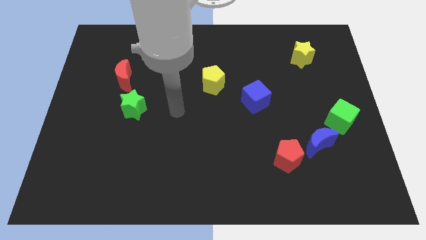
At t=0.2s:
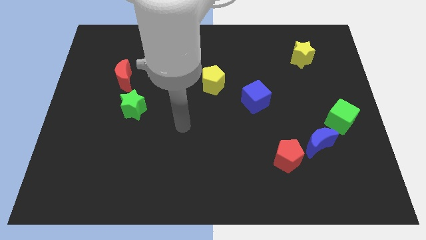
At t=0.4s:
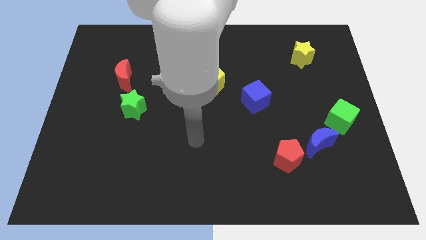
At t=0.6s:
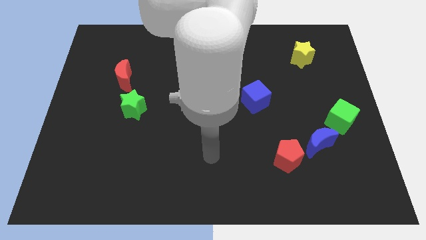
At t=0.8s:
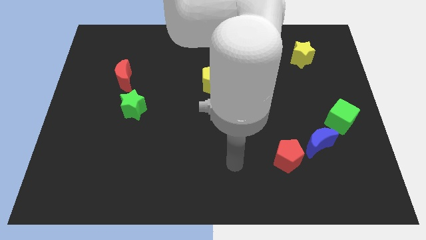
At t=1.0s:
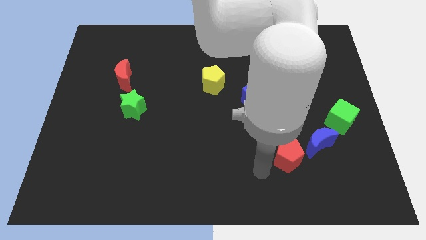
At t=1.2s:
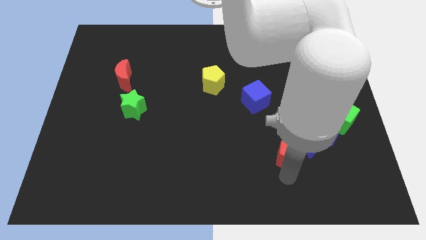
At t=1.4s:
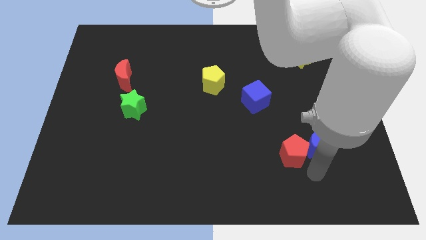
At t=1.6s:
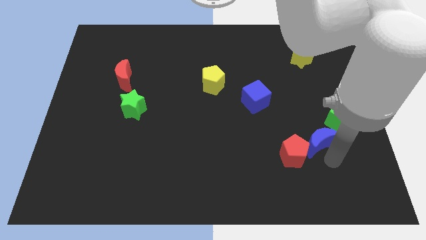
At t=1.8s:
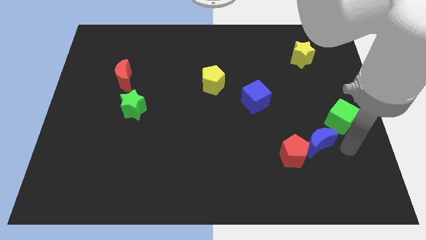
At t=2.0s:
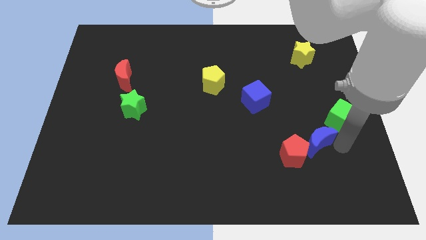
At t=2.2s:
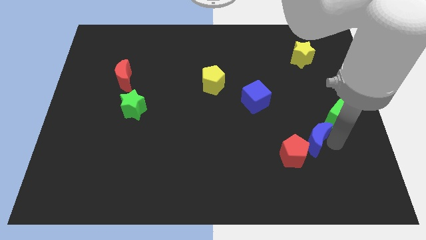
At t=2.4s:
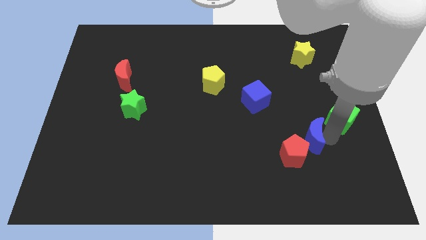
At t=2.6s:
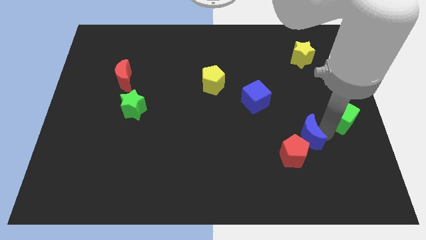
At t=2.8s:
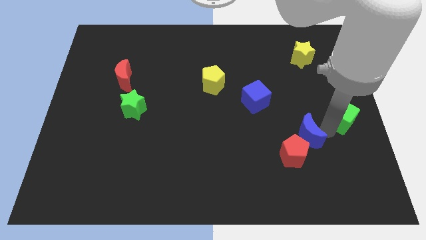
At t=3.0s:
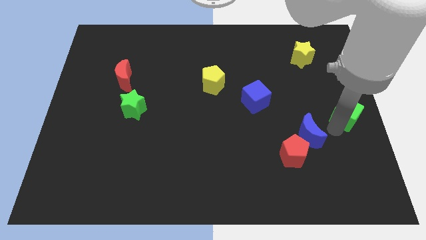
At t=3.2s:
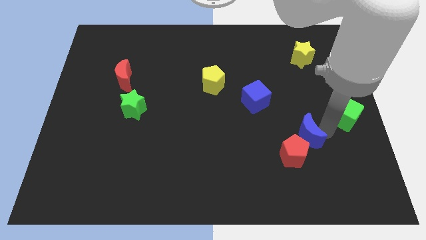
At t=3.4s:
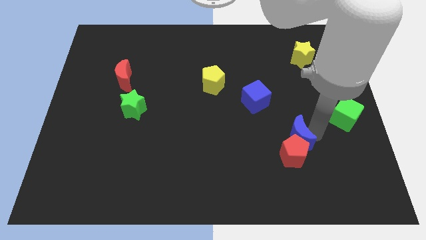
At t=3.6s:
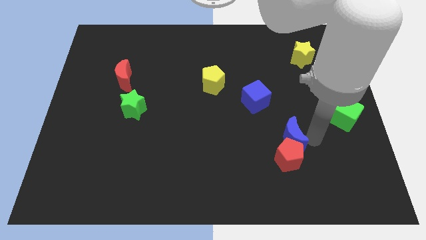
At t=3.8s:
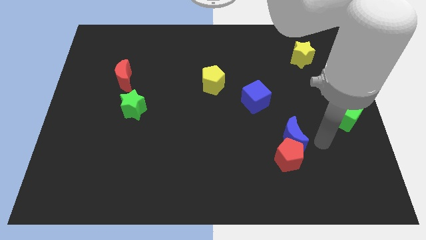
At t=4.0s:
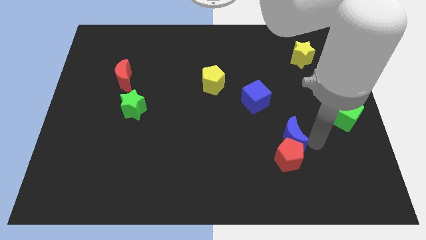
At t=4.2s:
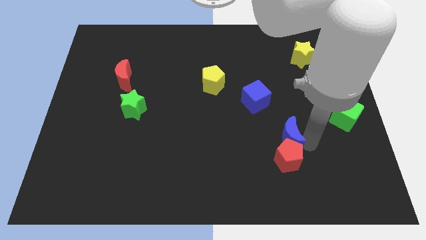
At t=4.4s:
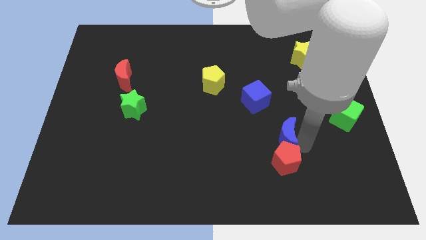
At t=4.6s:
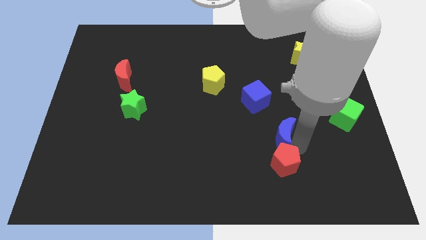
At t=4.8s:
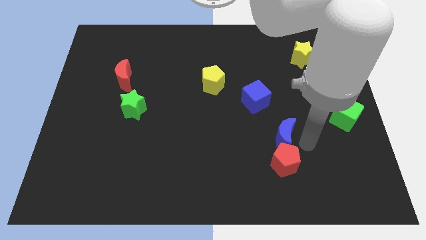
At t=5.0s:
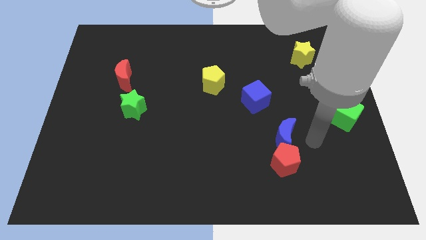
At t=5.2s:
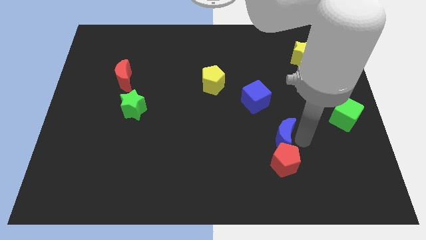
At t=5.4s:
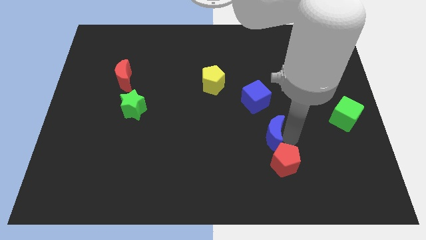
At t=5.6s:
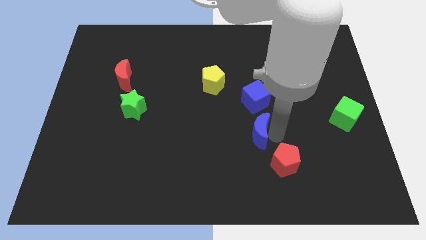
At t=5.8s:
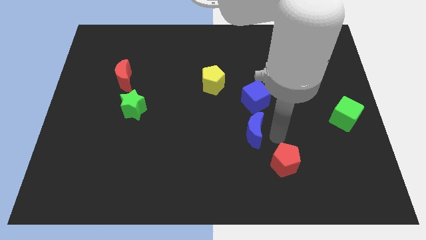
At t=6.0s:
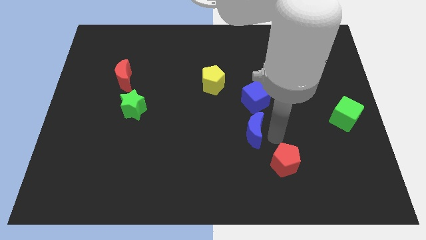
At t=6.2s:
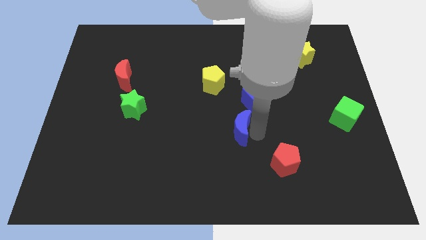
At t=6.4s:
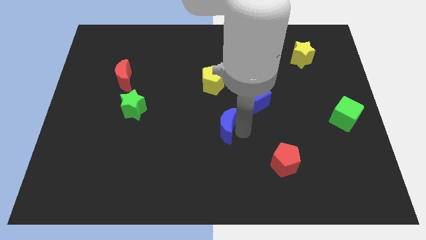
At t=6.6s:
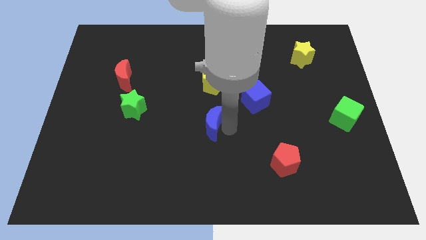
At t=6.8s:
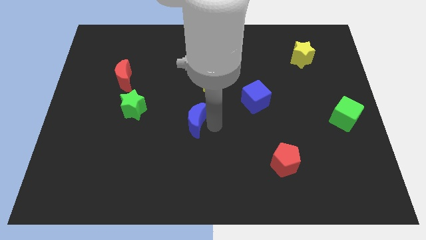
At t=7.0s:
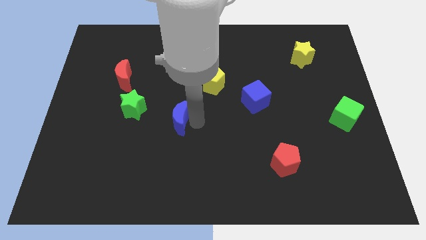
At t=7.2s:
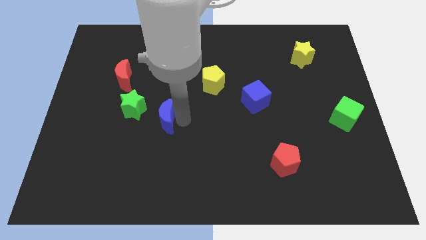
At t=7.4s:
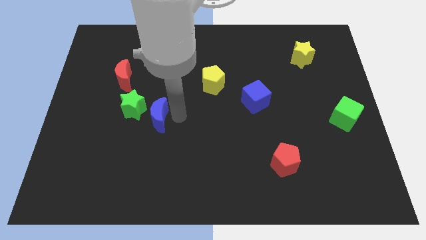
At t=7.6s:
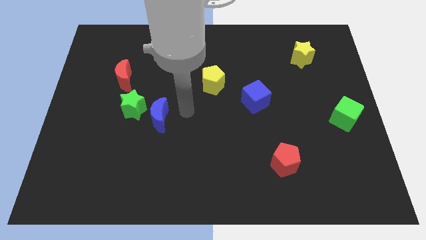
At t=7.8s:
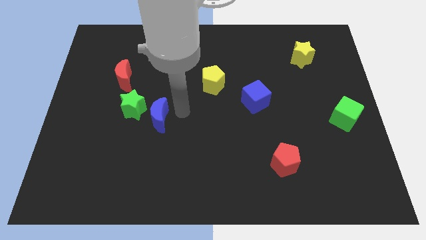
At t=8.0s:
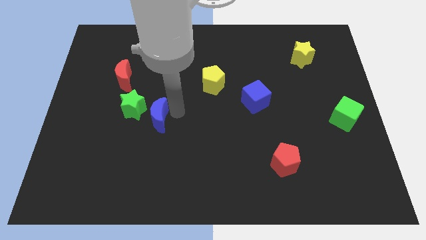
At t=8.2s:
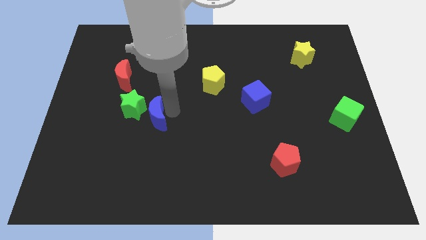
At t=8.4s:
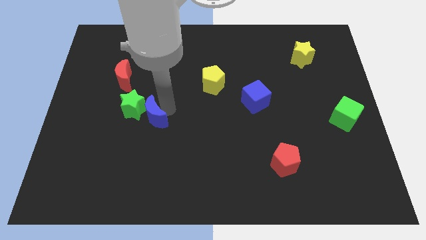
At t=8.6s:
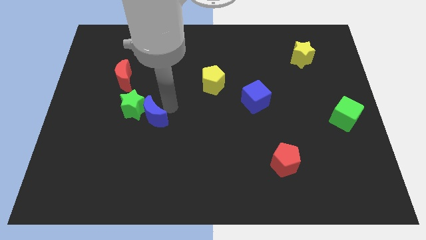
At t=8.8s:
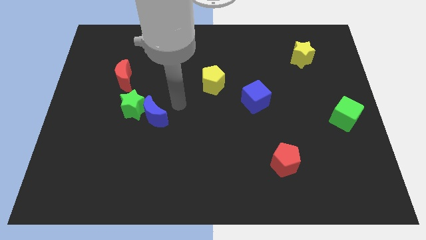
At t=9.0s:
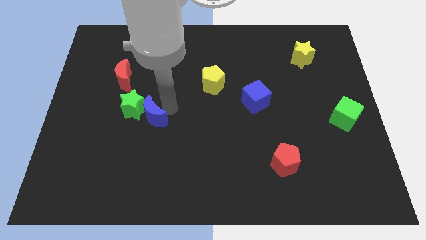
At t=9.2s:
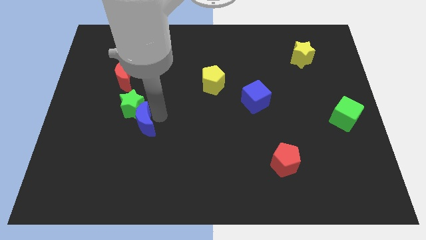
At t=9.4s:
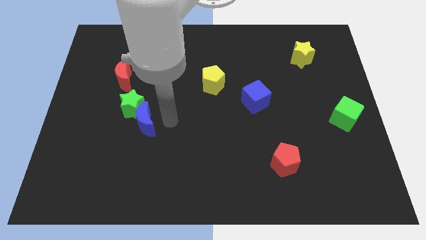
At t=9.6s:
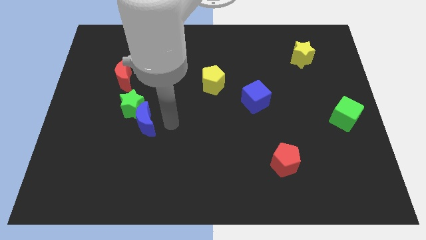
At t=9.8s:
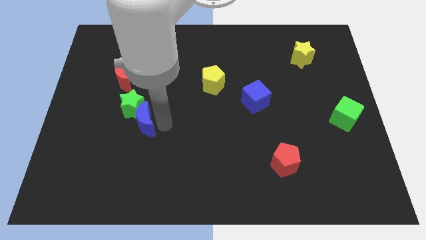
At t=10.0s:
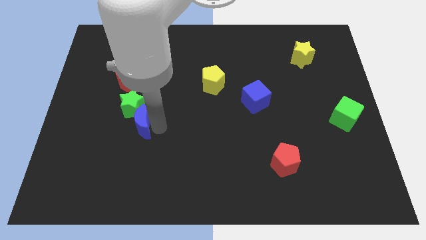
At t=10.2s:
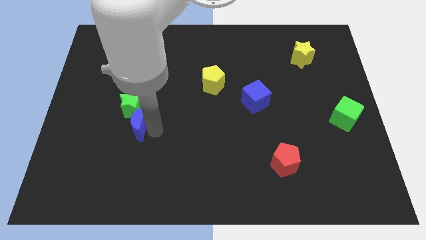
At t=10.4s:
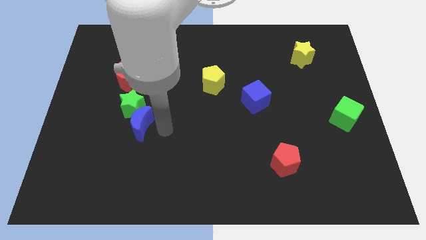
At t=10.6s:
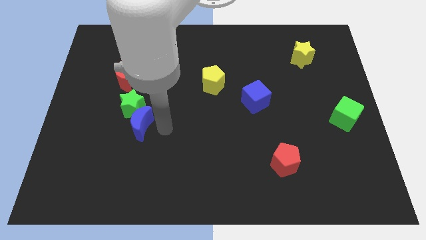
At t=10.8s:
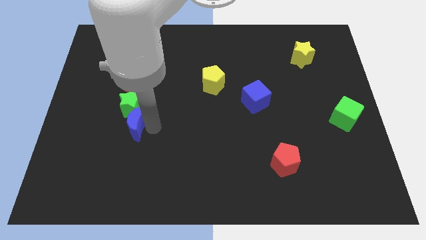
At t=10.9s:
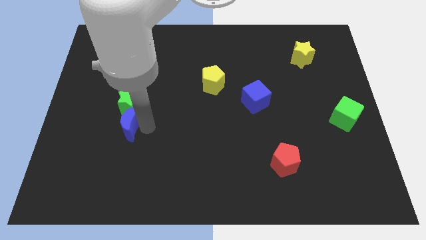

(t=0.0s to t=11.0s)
slide the blue moon below the red moon

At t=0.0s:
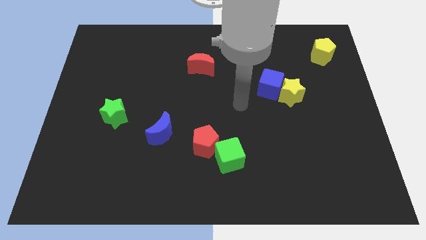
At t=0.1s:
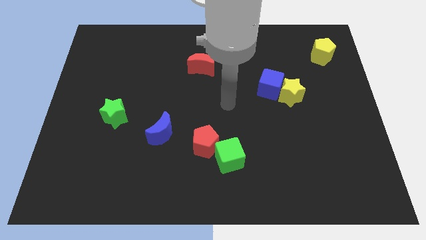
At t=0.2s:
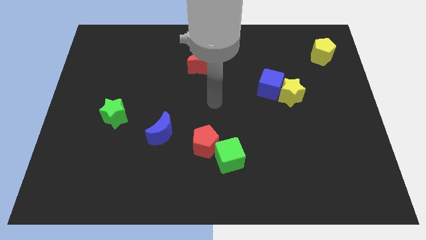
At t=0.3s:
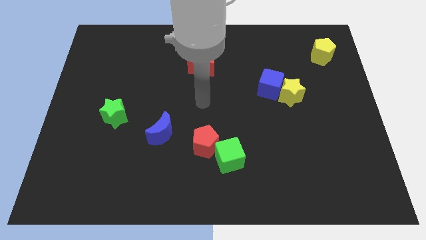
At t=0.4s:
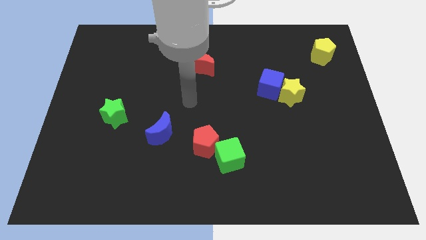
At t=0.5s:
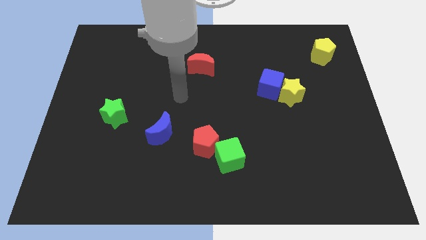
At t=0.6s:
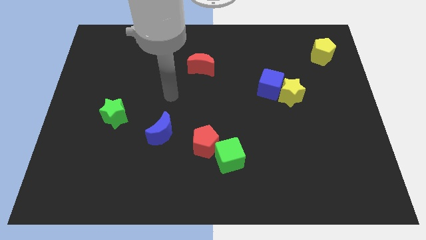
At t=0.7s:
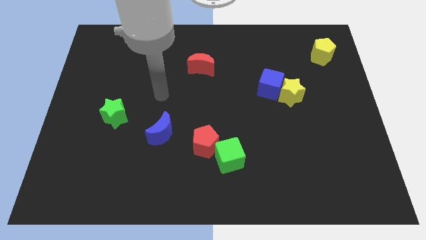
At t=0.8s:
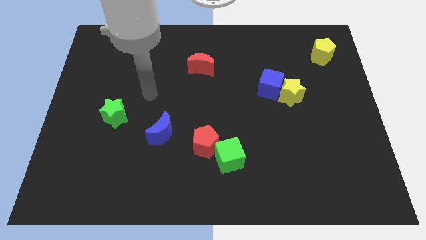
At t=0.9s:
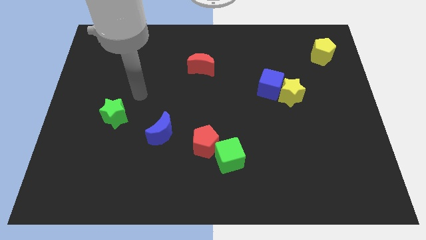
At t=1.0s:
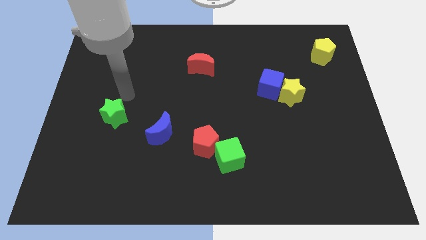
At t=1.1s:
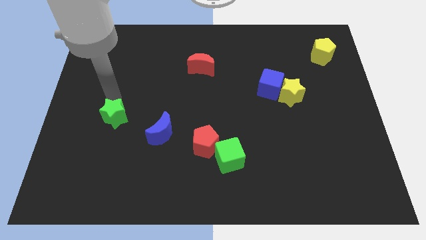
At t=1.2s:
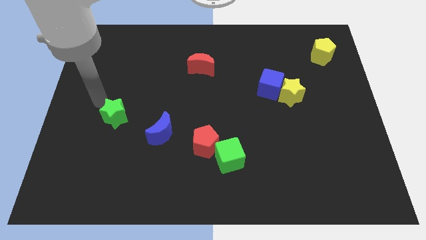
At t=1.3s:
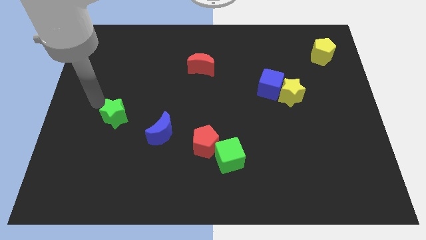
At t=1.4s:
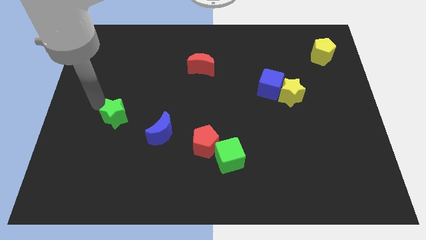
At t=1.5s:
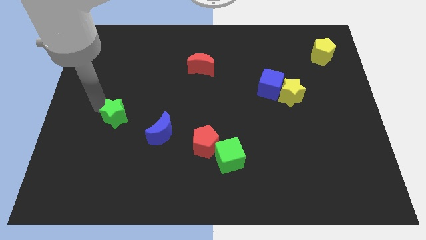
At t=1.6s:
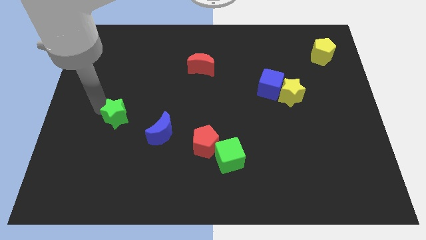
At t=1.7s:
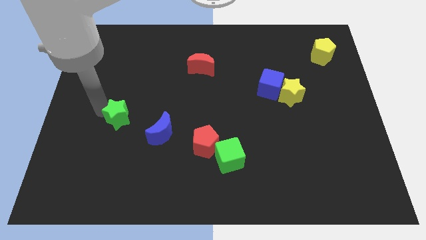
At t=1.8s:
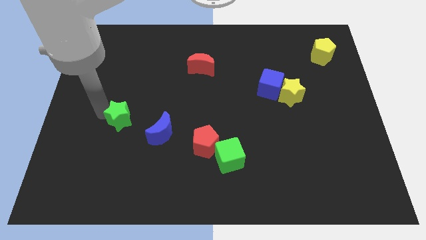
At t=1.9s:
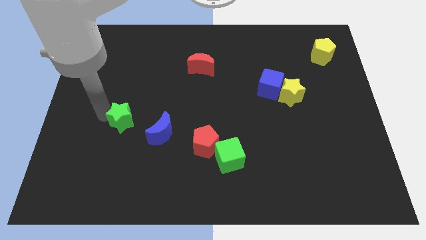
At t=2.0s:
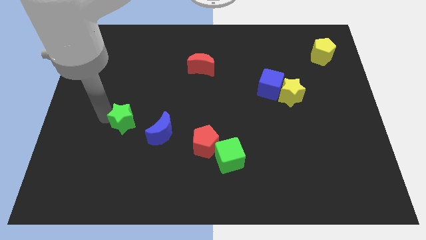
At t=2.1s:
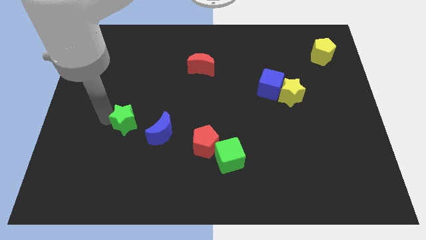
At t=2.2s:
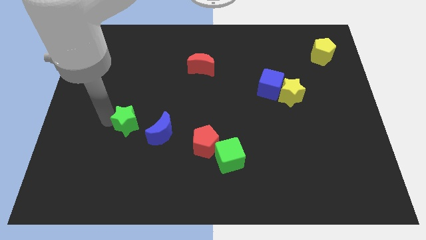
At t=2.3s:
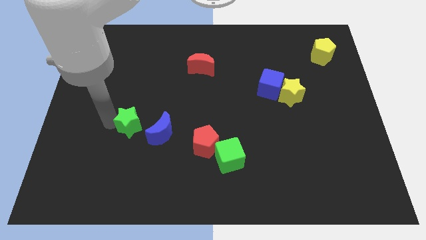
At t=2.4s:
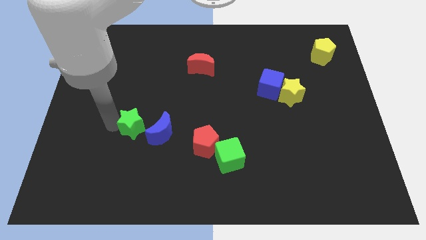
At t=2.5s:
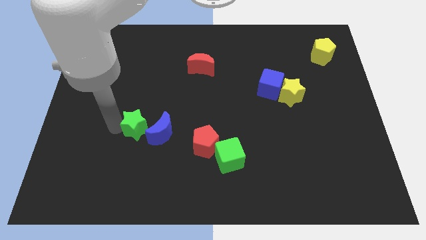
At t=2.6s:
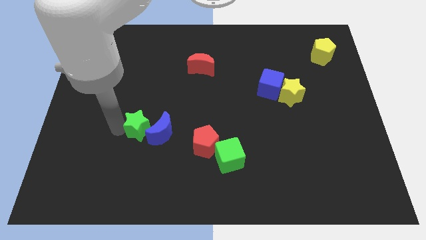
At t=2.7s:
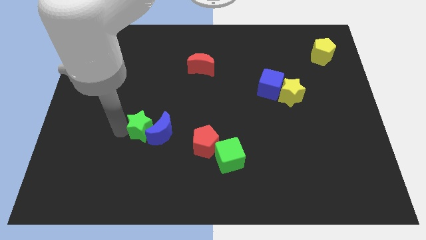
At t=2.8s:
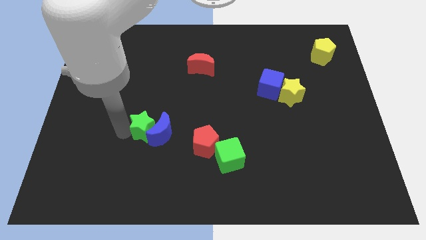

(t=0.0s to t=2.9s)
push the green star just left of the red pentagon
